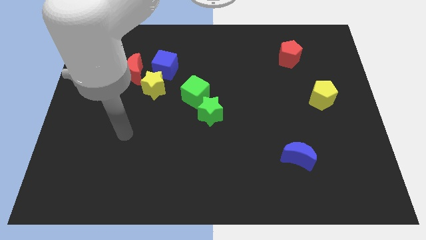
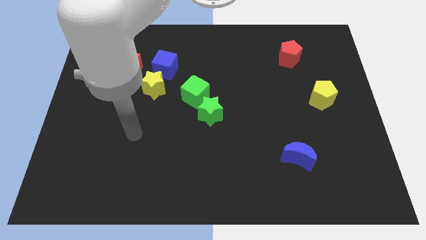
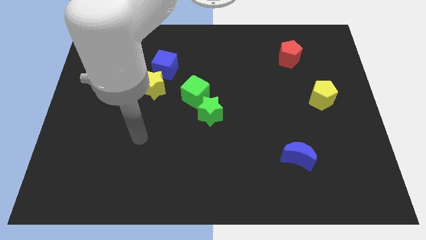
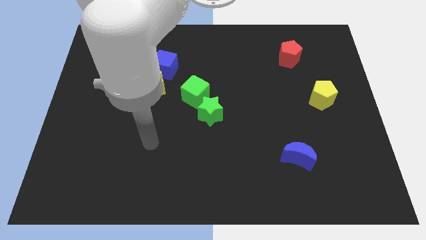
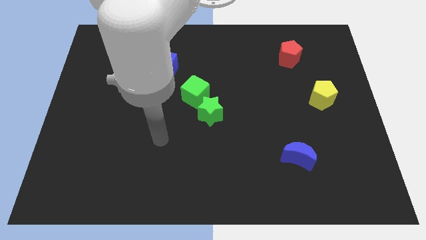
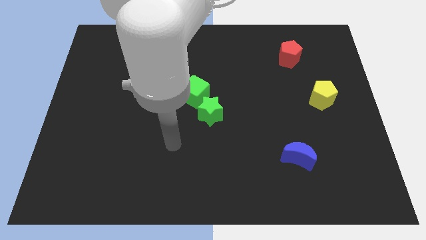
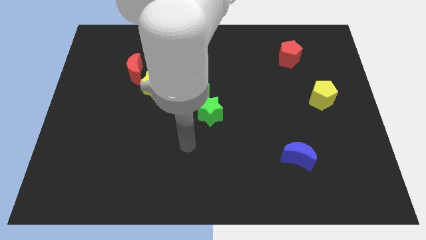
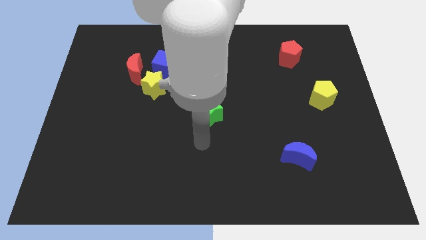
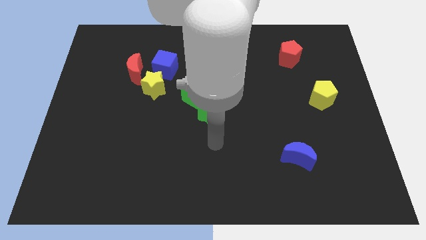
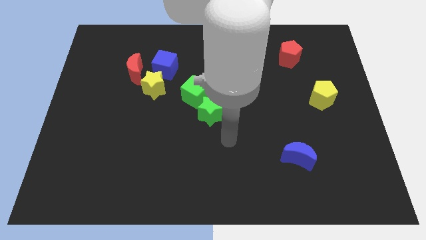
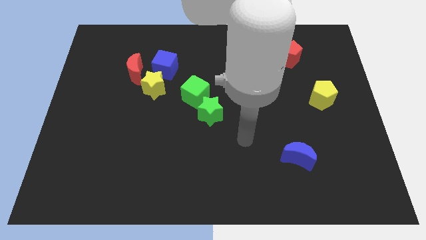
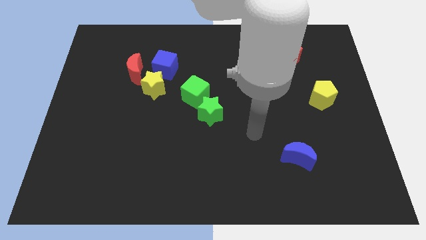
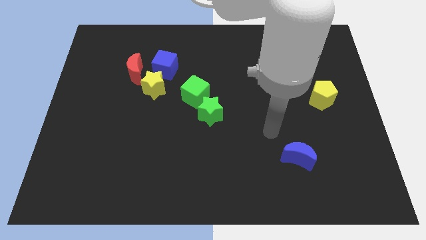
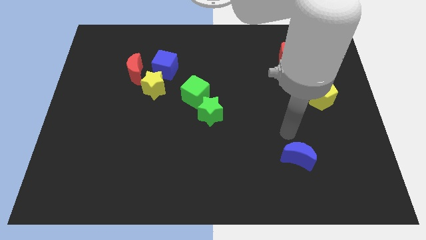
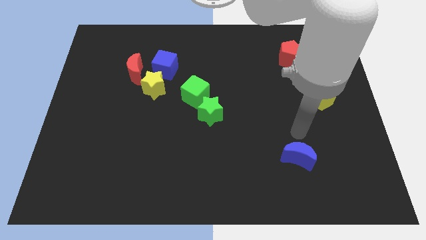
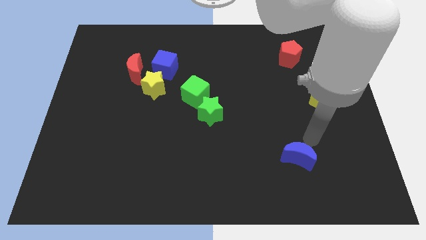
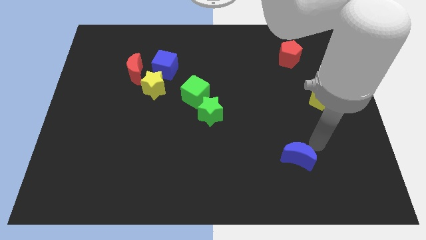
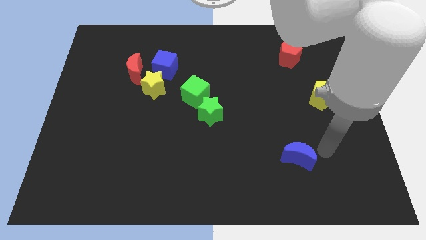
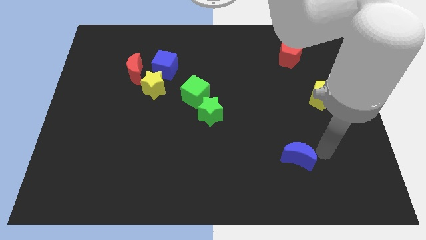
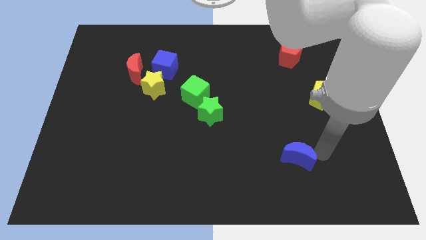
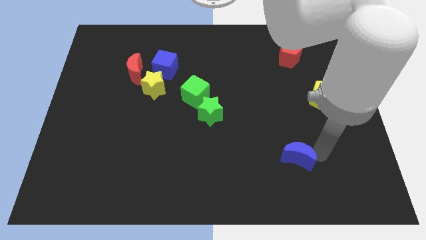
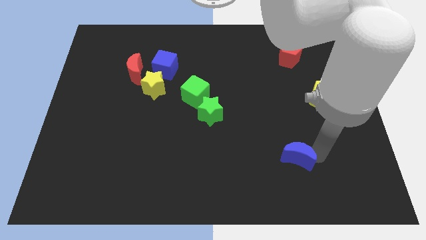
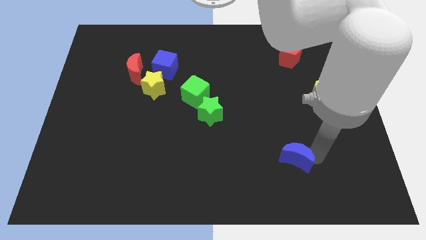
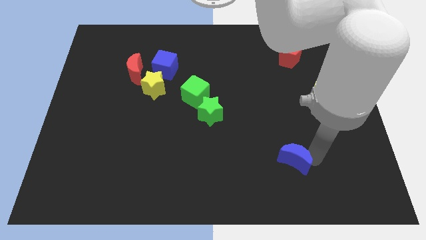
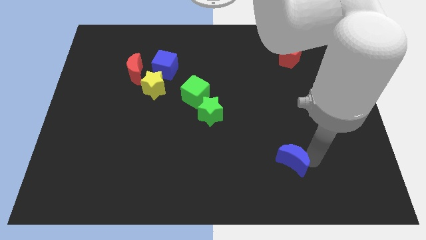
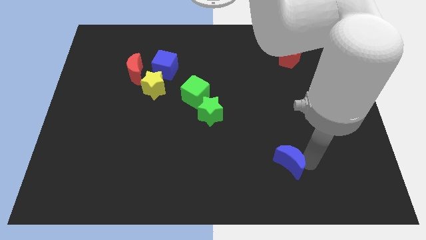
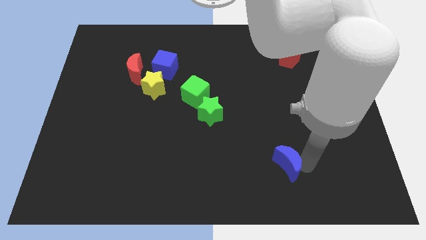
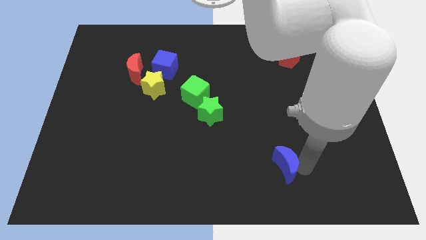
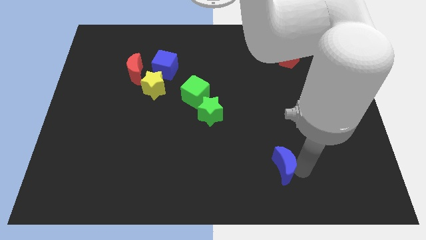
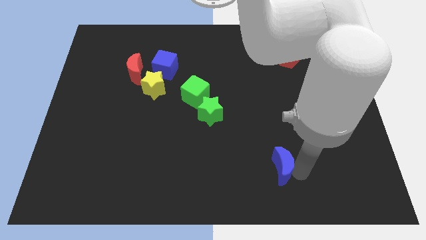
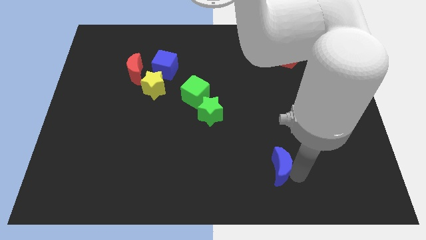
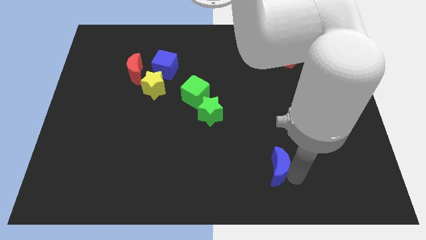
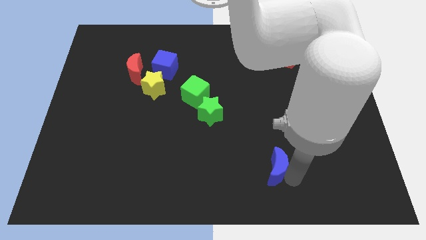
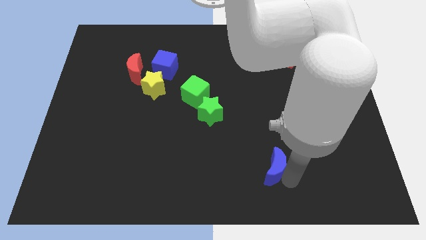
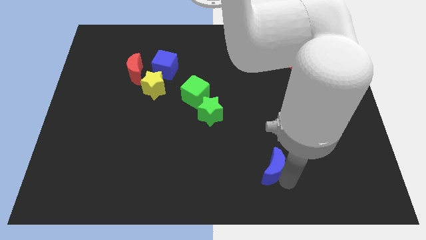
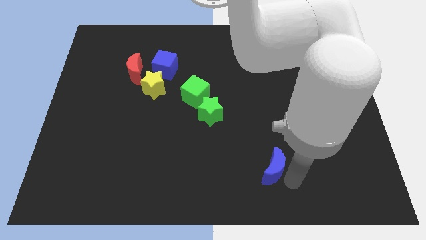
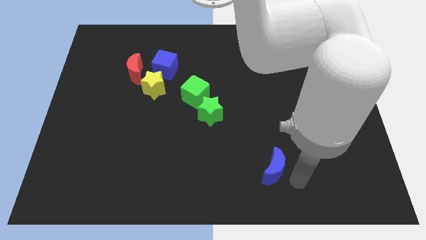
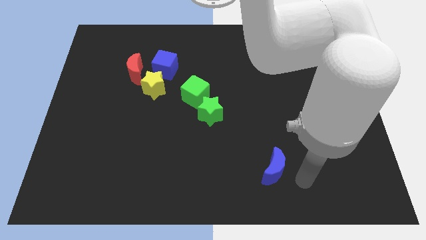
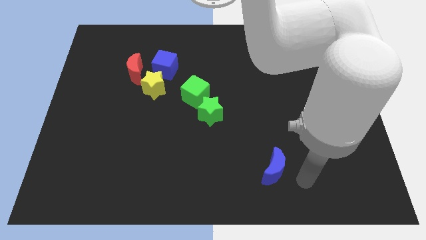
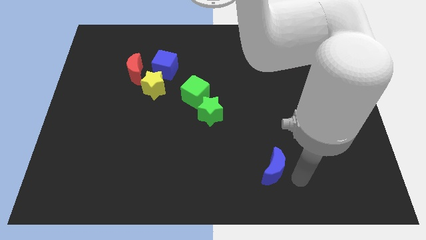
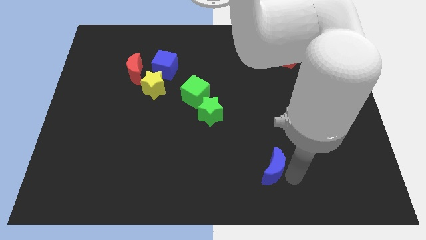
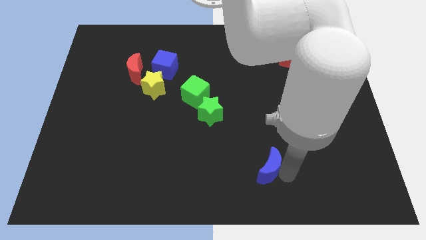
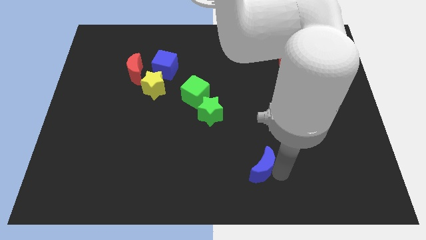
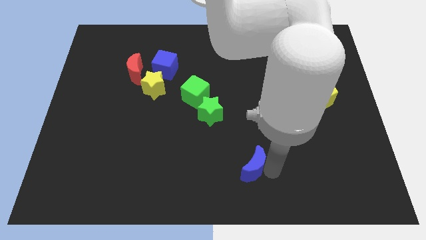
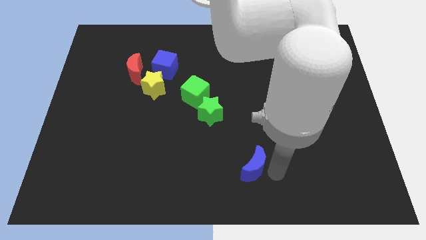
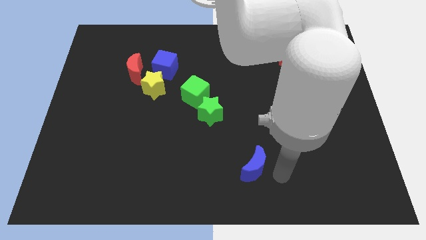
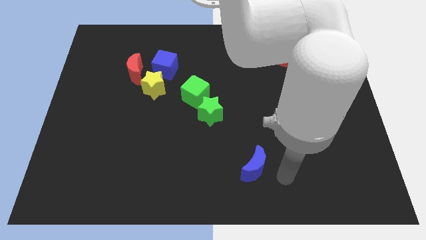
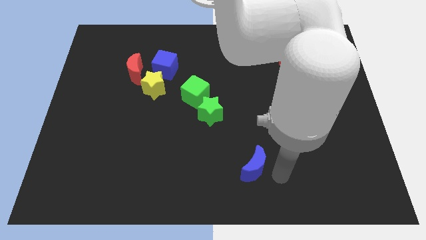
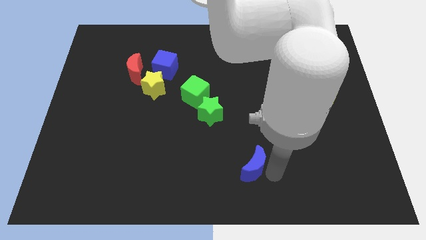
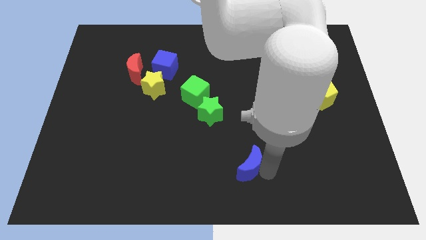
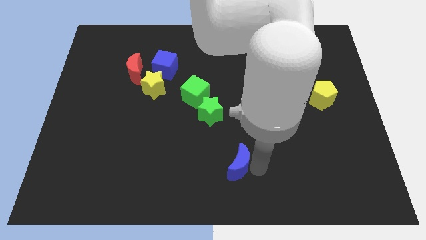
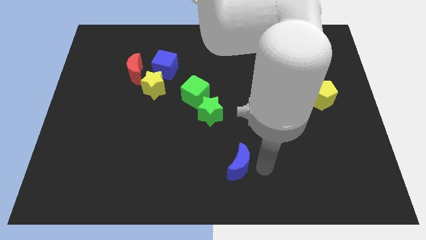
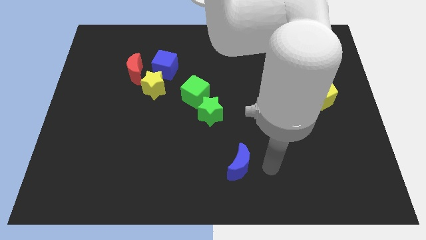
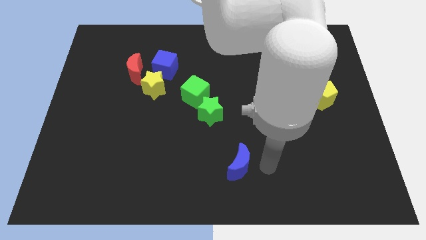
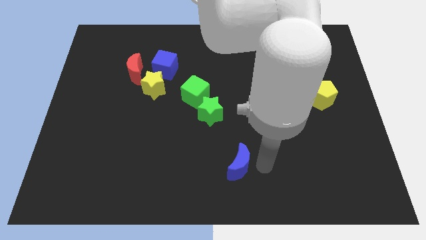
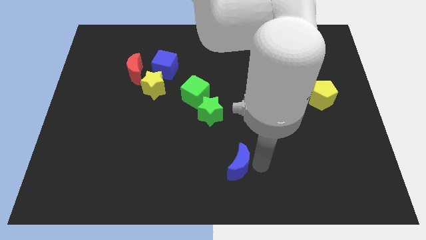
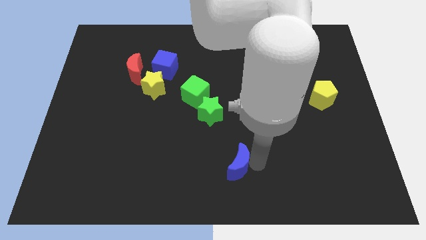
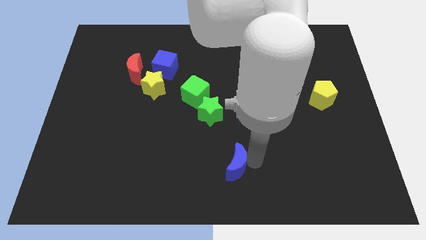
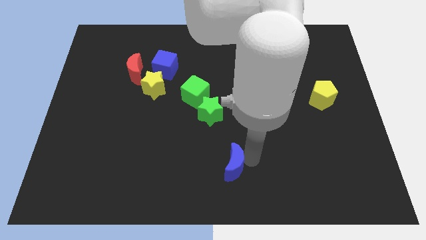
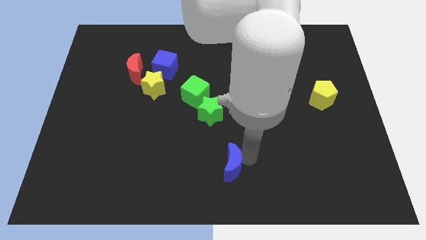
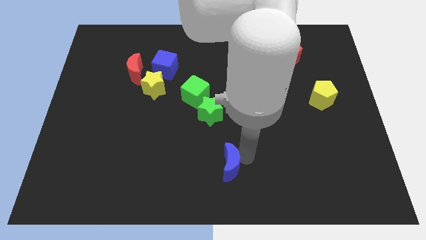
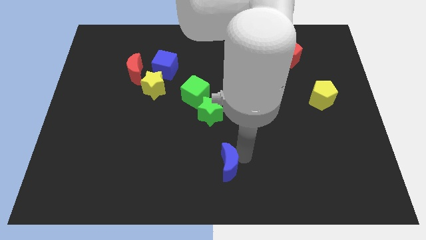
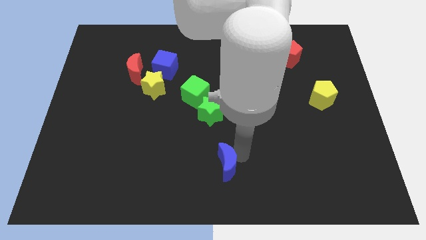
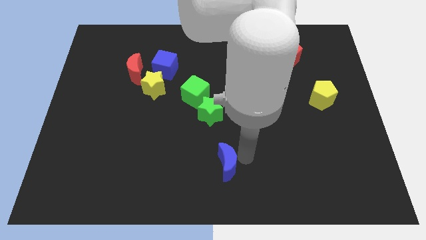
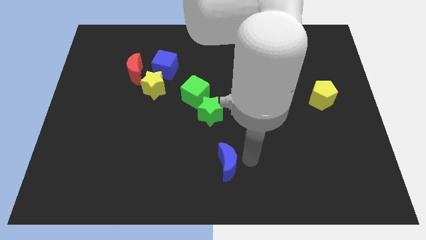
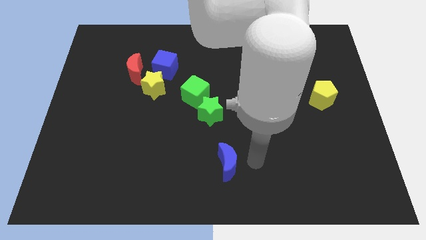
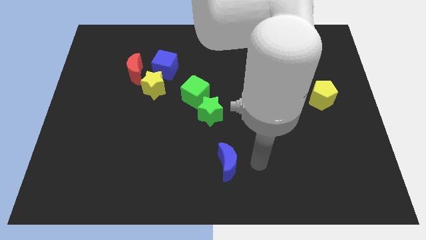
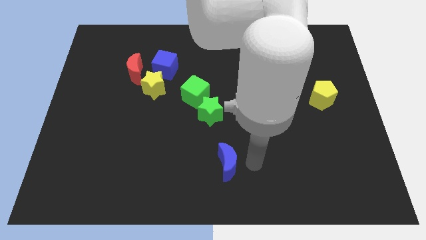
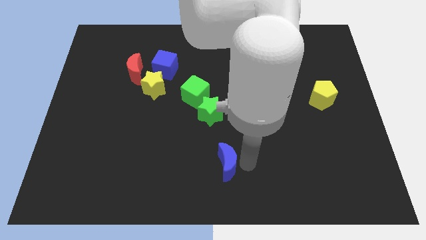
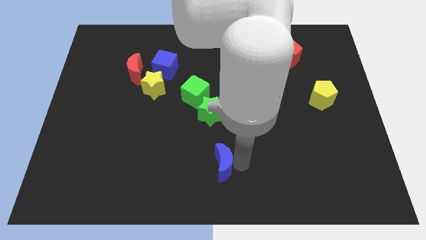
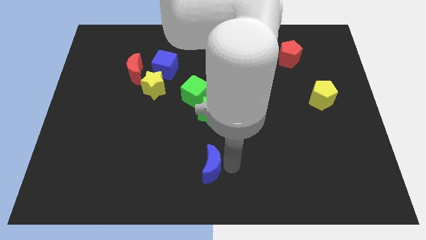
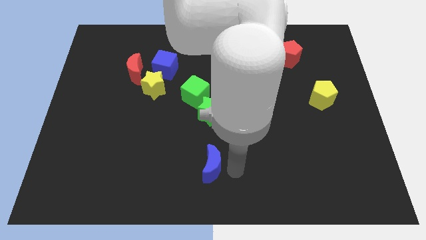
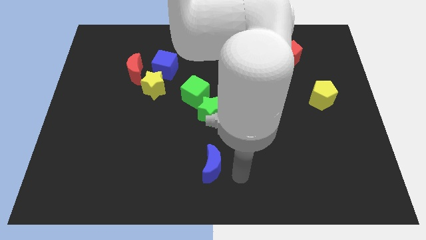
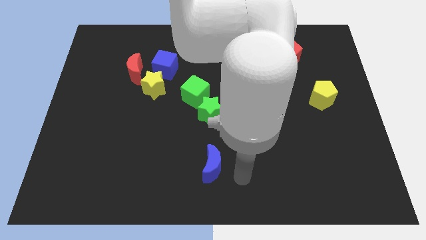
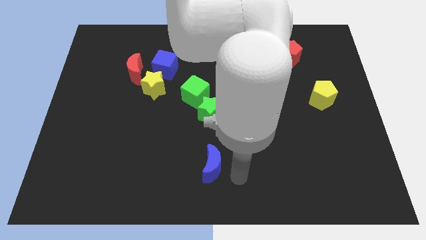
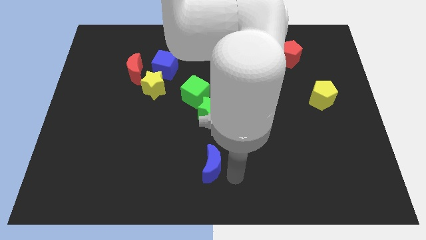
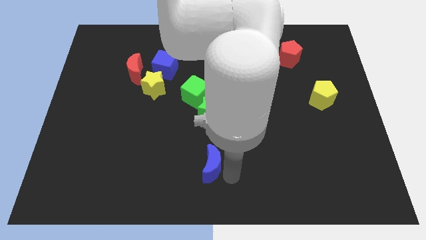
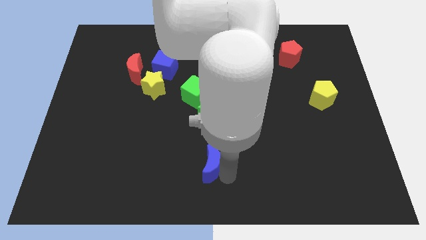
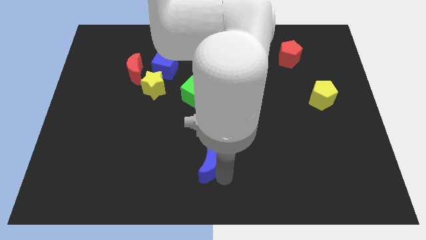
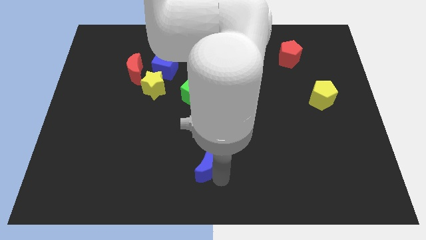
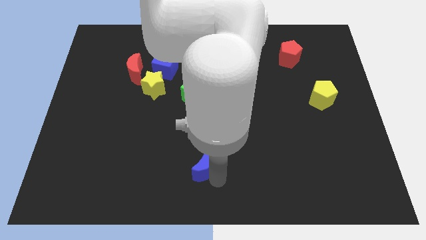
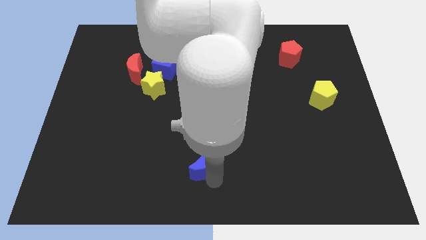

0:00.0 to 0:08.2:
slide the blue moon to the left

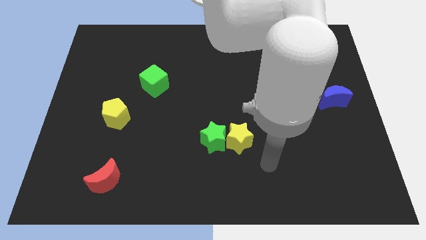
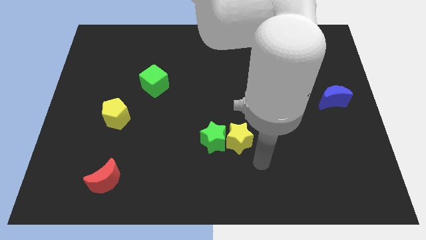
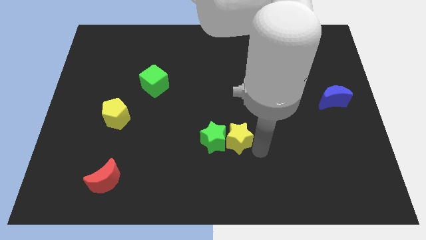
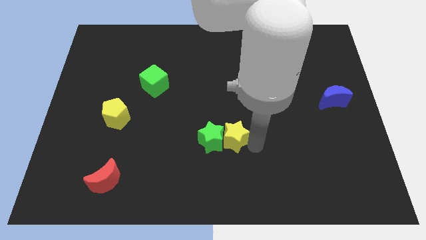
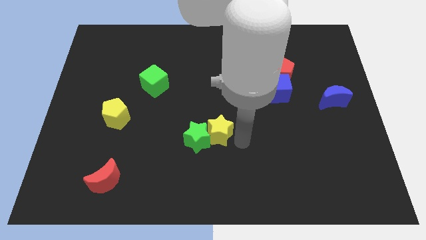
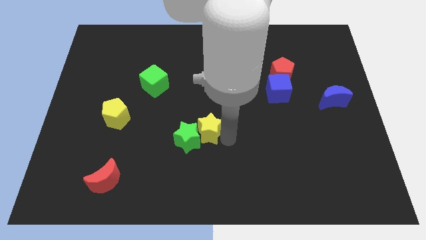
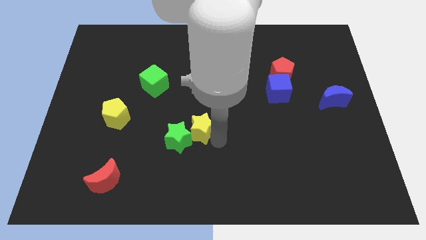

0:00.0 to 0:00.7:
move the green star somewhat left
